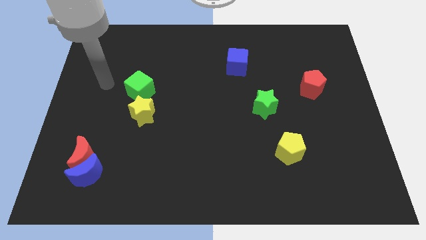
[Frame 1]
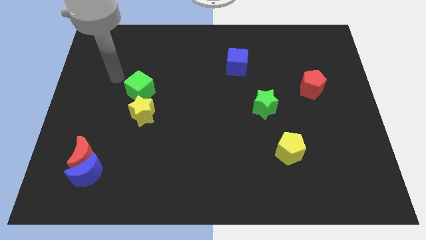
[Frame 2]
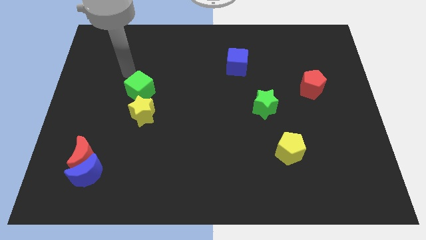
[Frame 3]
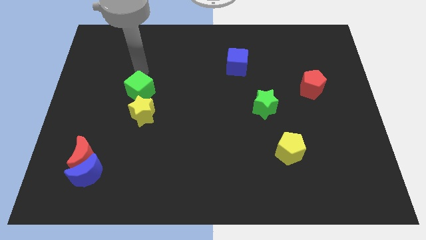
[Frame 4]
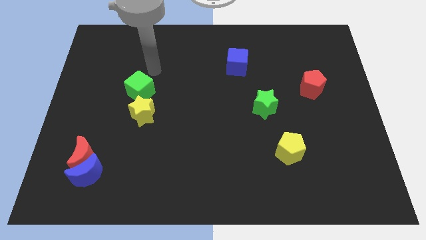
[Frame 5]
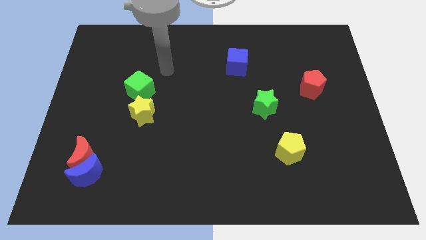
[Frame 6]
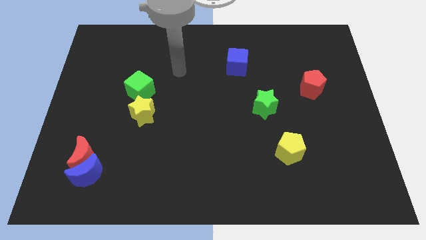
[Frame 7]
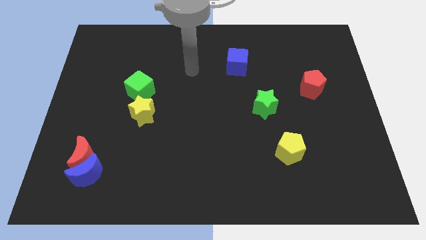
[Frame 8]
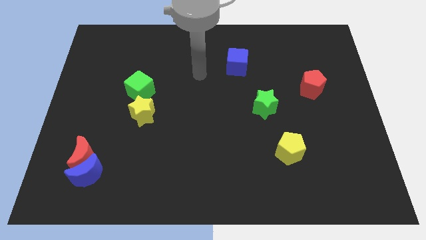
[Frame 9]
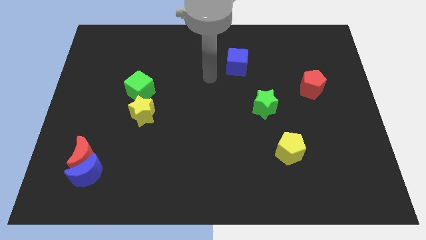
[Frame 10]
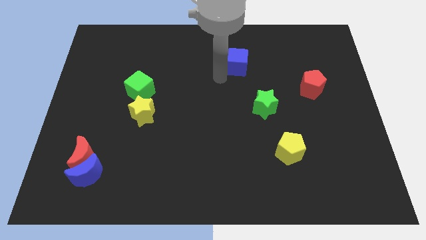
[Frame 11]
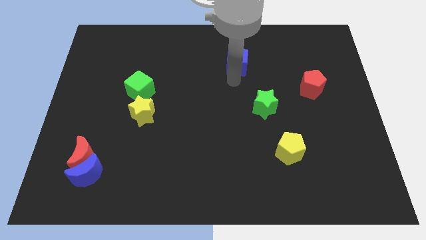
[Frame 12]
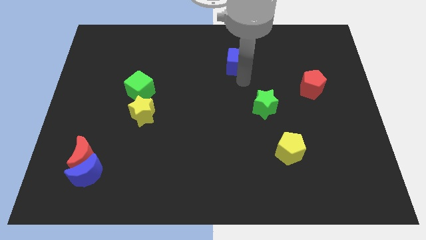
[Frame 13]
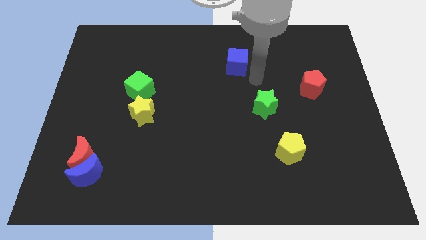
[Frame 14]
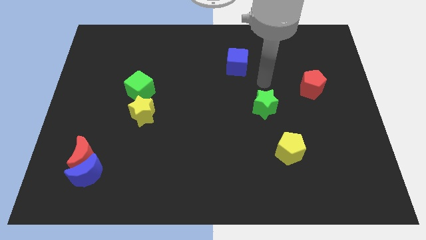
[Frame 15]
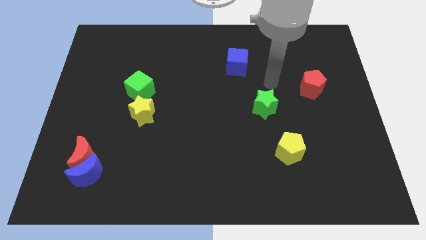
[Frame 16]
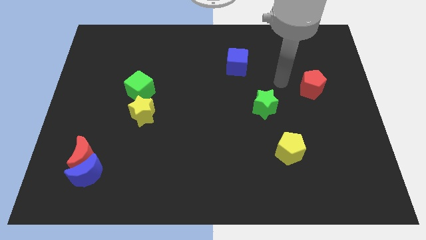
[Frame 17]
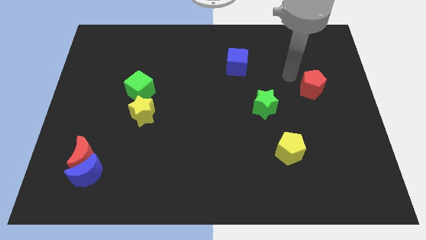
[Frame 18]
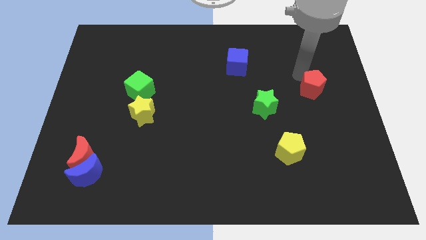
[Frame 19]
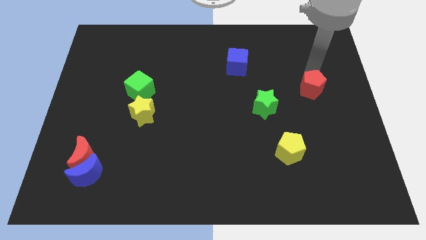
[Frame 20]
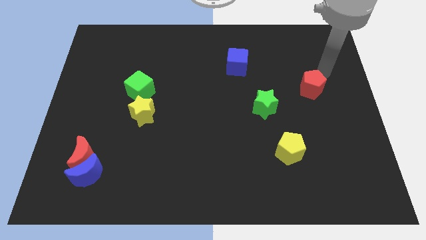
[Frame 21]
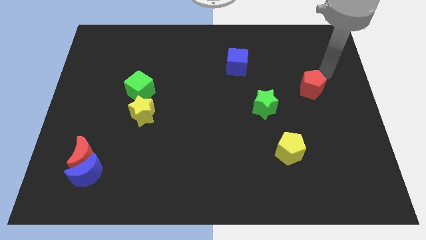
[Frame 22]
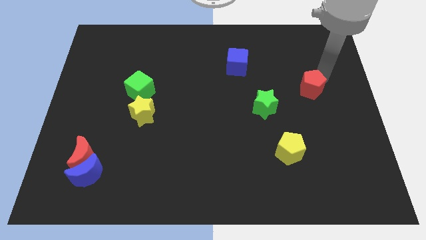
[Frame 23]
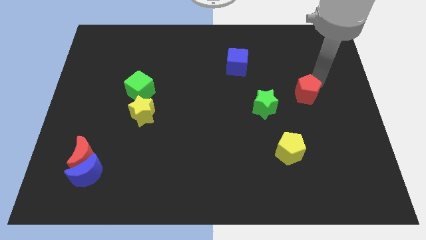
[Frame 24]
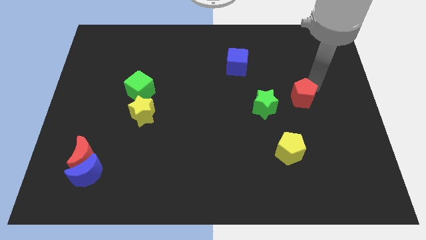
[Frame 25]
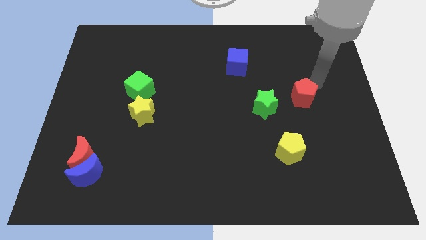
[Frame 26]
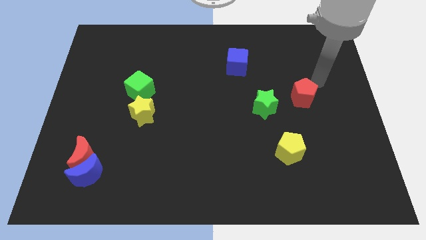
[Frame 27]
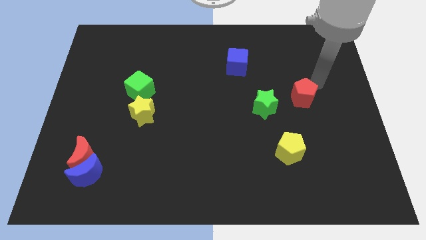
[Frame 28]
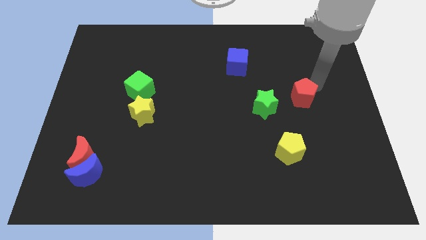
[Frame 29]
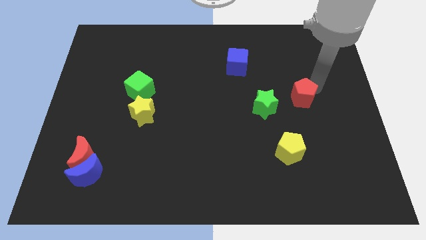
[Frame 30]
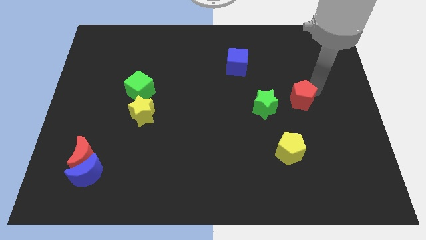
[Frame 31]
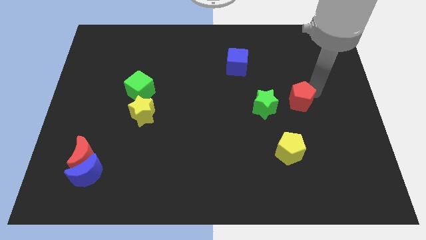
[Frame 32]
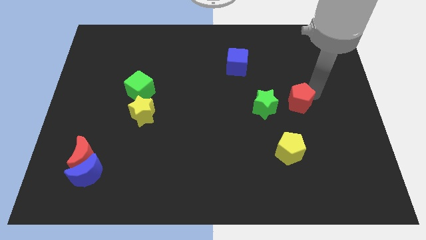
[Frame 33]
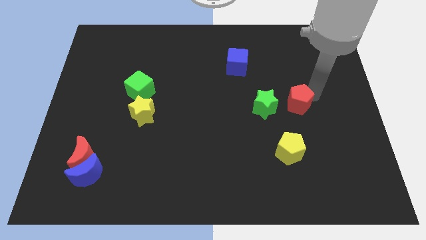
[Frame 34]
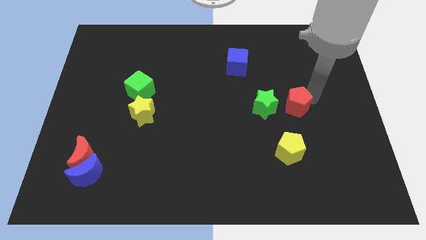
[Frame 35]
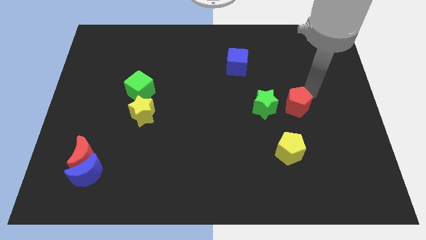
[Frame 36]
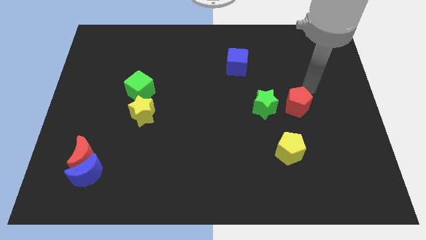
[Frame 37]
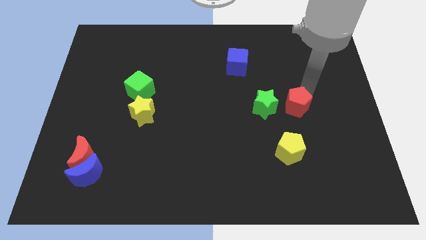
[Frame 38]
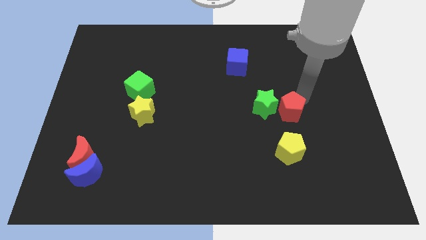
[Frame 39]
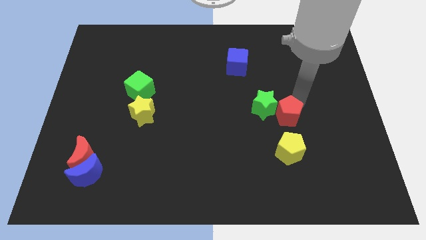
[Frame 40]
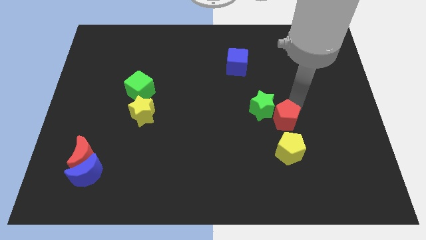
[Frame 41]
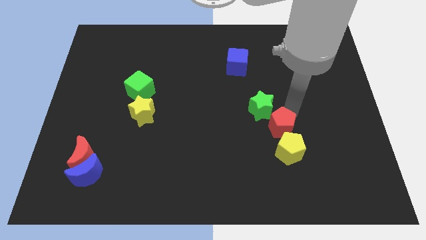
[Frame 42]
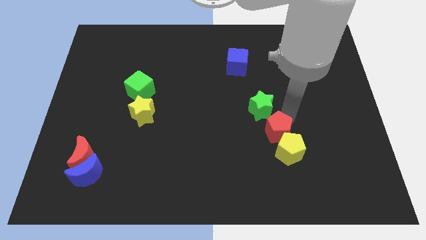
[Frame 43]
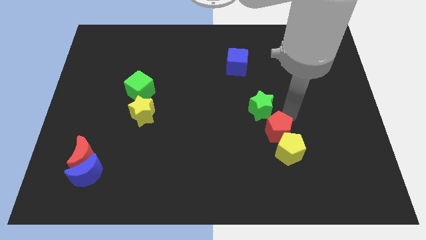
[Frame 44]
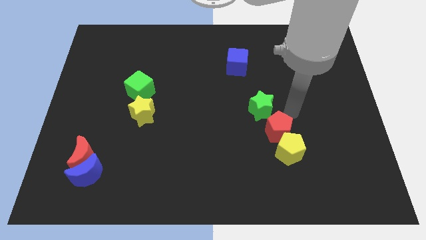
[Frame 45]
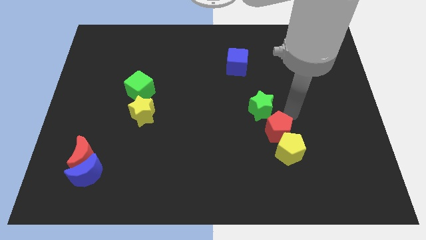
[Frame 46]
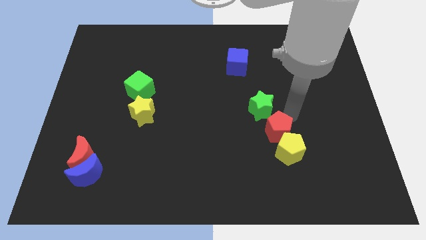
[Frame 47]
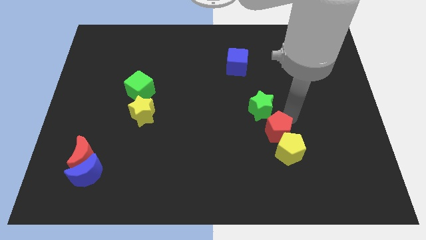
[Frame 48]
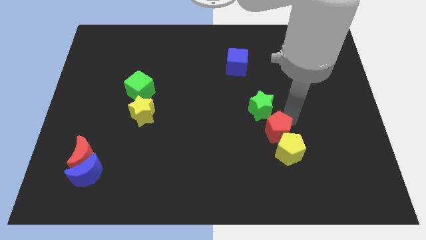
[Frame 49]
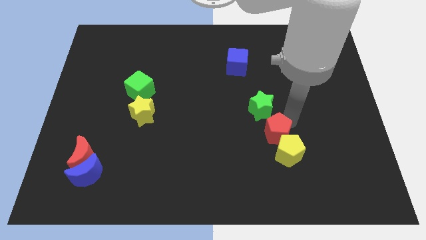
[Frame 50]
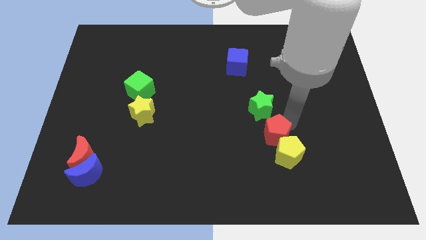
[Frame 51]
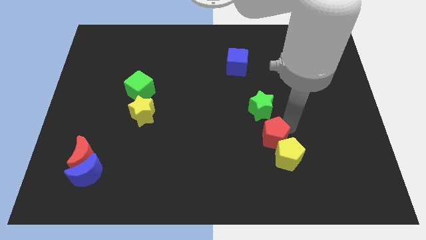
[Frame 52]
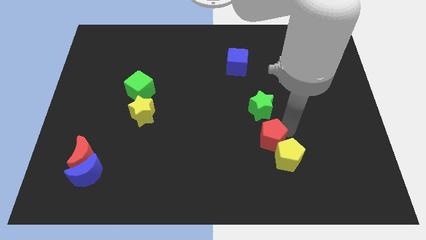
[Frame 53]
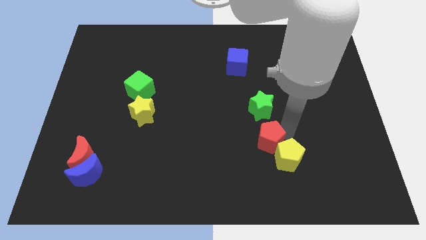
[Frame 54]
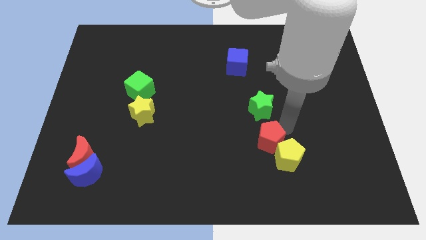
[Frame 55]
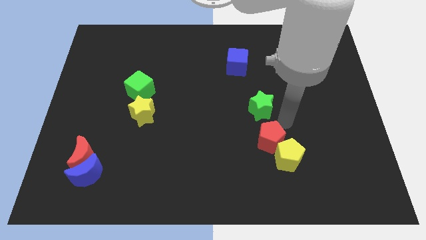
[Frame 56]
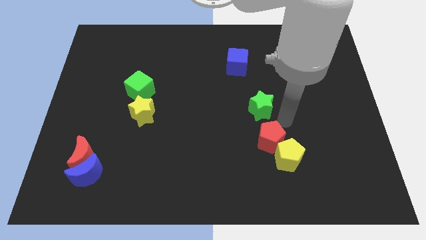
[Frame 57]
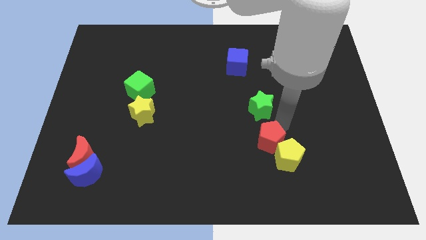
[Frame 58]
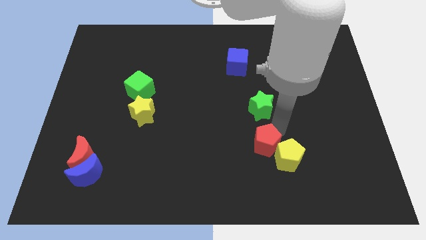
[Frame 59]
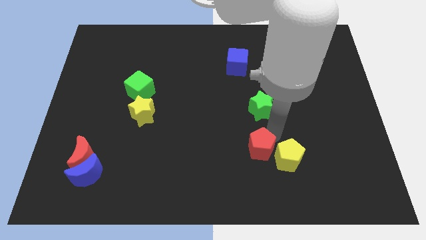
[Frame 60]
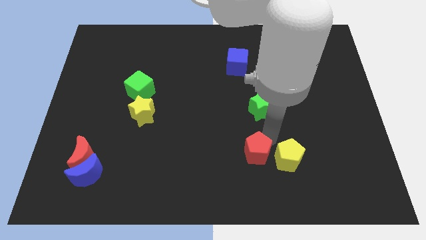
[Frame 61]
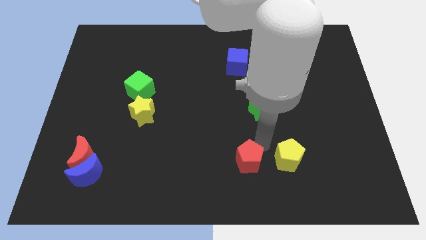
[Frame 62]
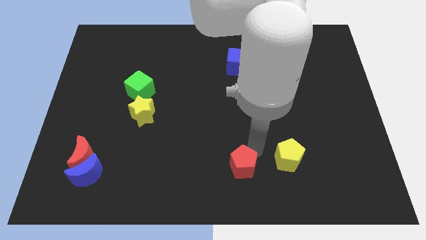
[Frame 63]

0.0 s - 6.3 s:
slide the red pentagon to the bottom
